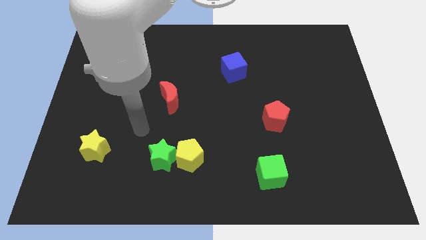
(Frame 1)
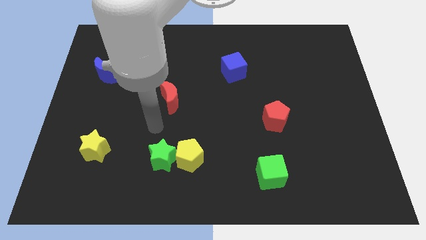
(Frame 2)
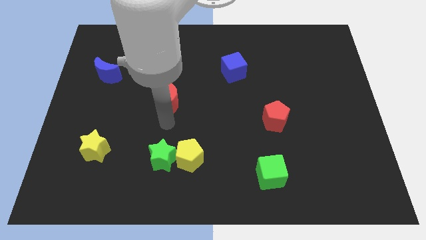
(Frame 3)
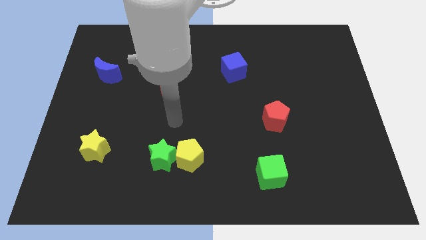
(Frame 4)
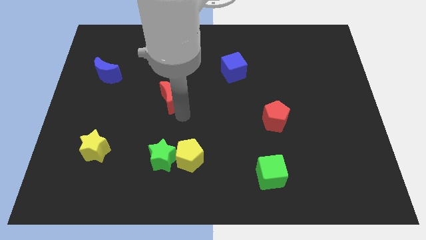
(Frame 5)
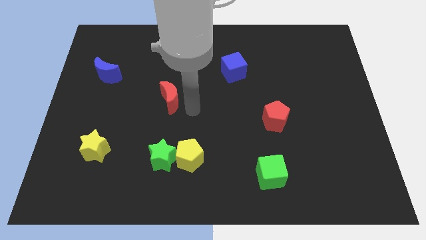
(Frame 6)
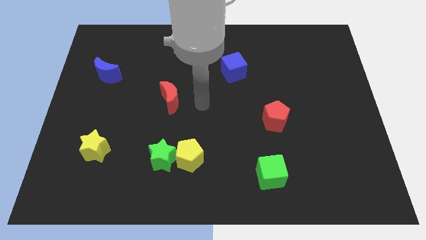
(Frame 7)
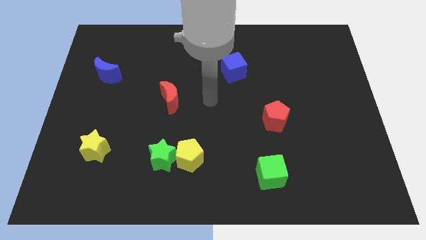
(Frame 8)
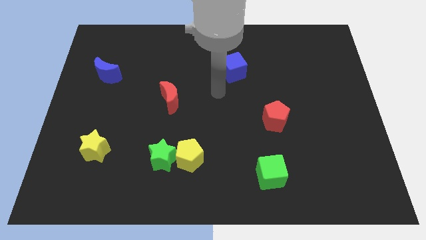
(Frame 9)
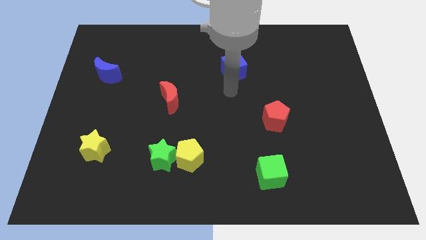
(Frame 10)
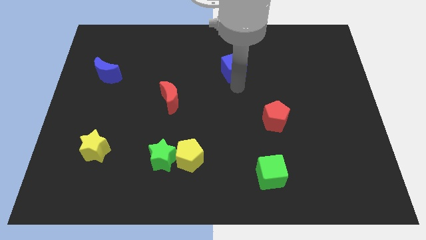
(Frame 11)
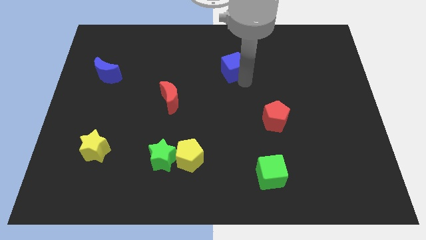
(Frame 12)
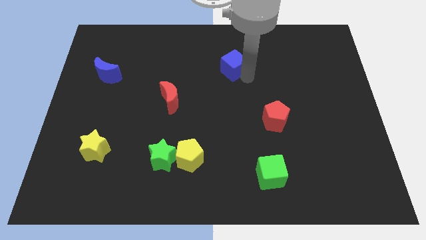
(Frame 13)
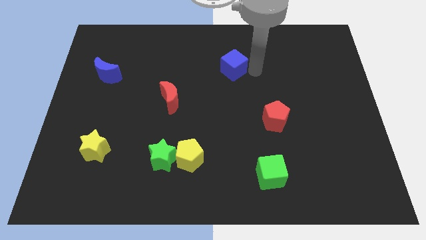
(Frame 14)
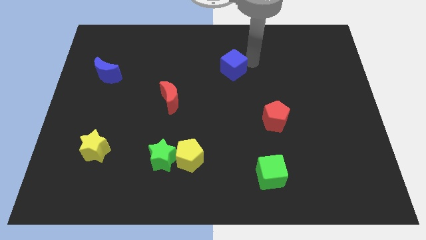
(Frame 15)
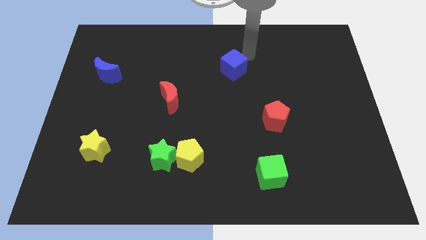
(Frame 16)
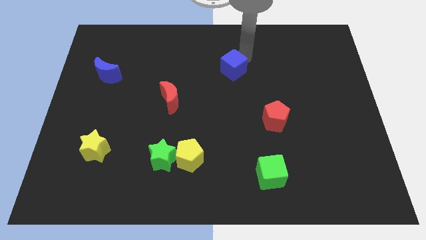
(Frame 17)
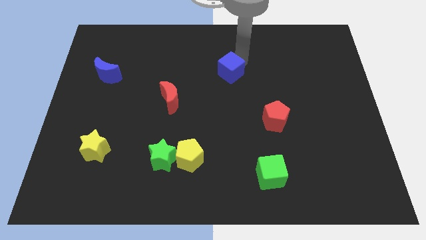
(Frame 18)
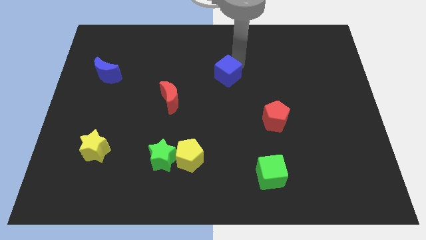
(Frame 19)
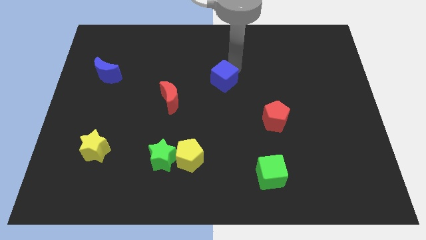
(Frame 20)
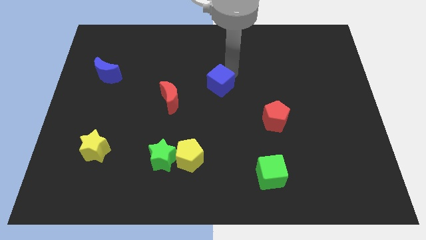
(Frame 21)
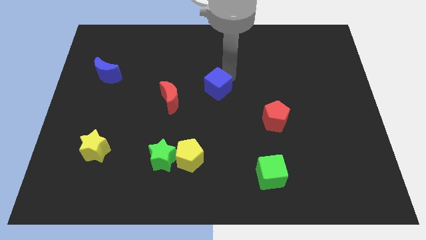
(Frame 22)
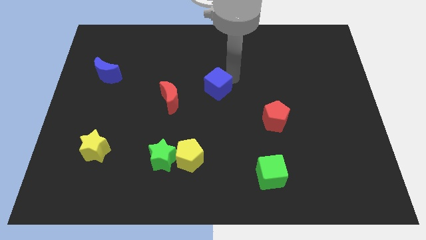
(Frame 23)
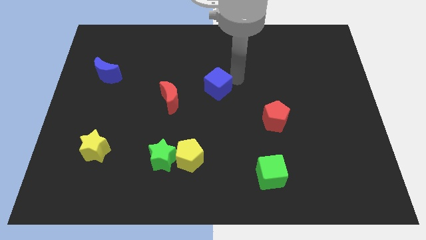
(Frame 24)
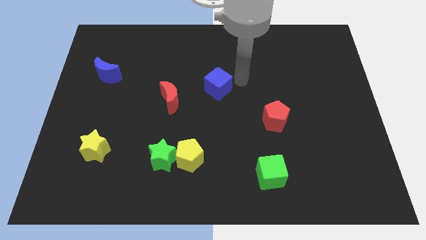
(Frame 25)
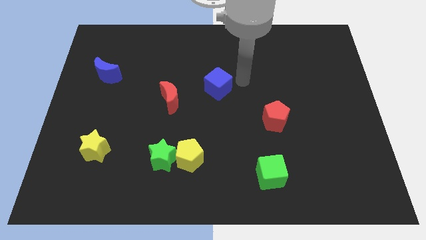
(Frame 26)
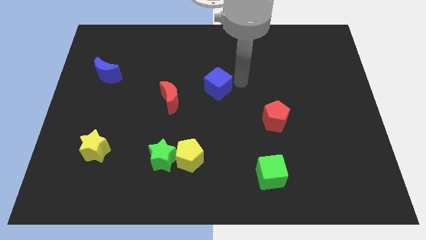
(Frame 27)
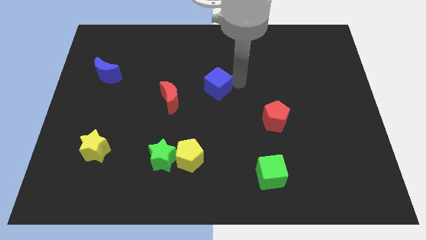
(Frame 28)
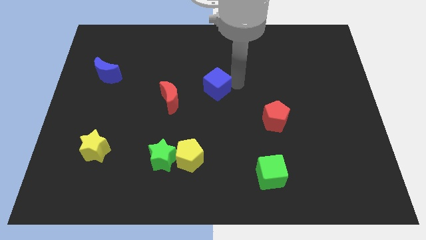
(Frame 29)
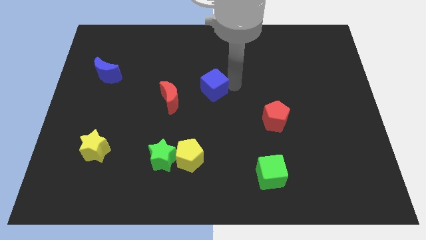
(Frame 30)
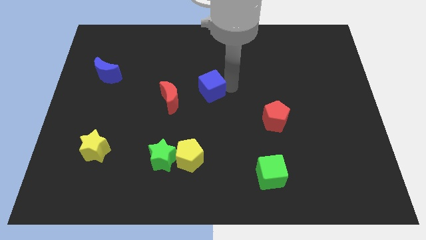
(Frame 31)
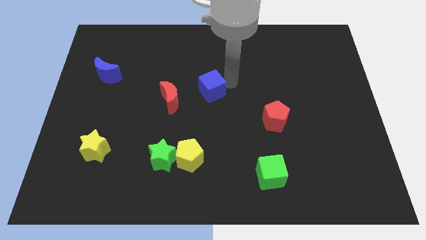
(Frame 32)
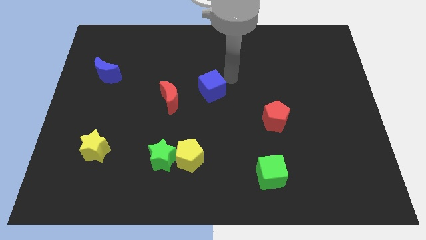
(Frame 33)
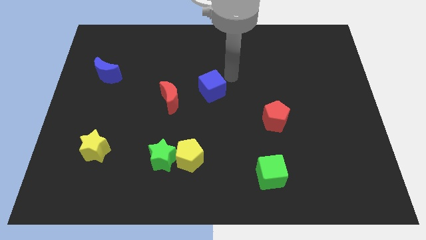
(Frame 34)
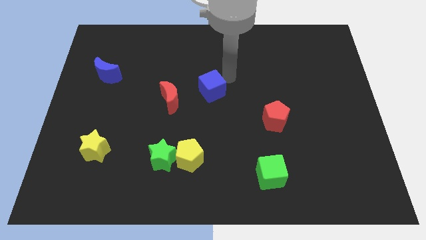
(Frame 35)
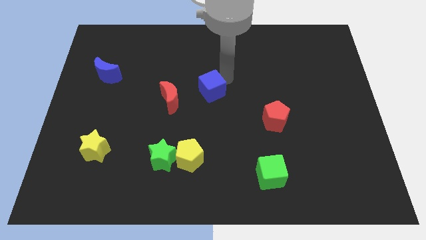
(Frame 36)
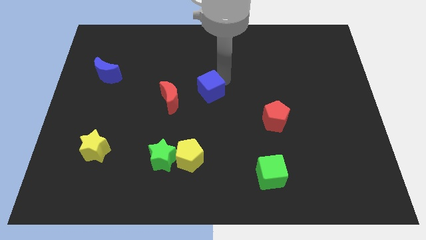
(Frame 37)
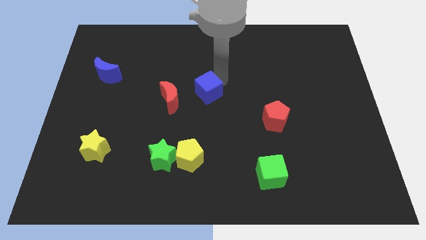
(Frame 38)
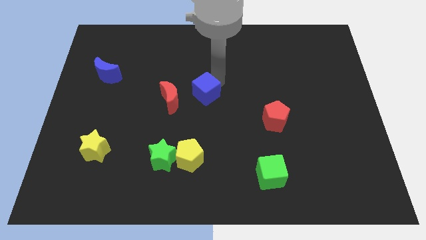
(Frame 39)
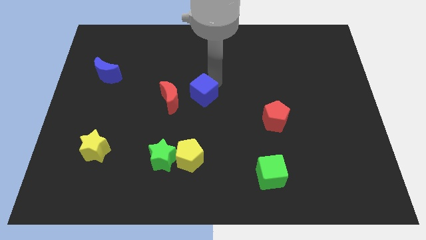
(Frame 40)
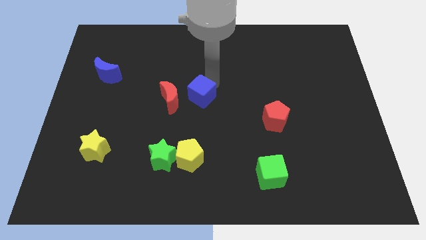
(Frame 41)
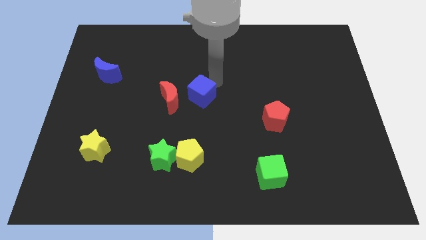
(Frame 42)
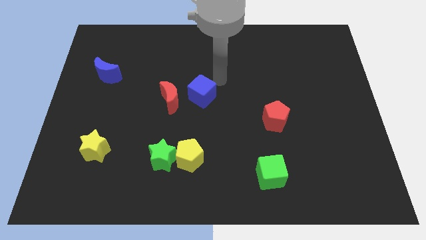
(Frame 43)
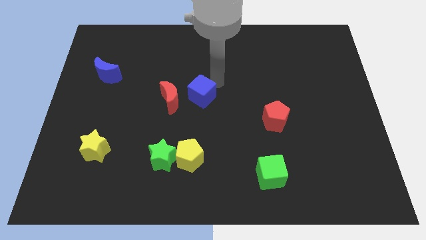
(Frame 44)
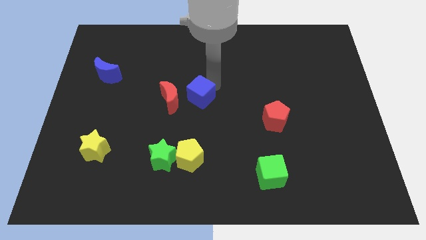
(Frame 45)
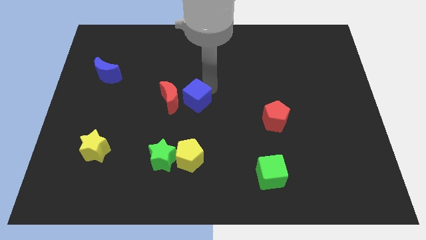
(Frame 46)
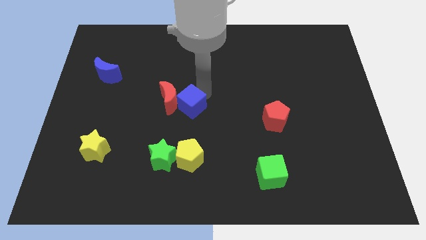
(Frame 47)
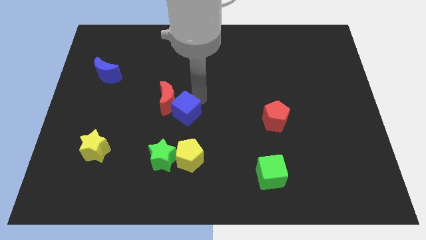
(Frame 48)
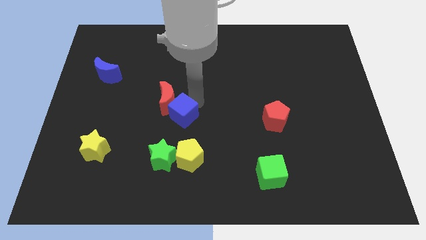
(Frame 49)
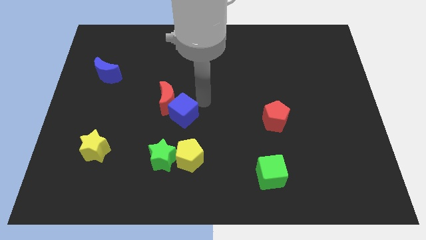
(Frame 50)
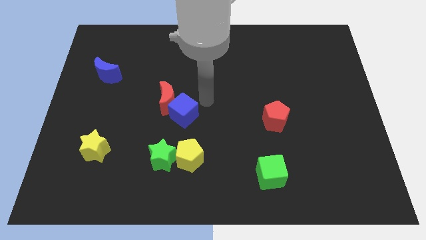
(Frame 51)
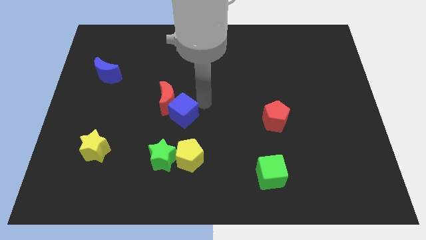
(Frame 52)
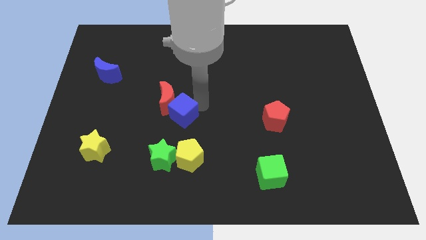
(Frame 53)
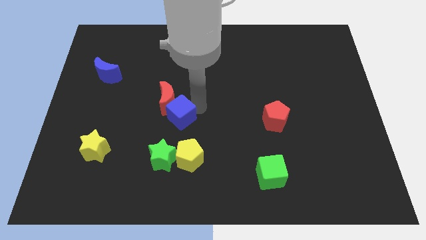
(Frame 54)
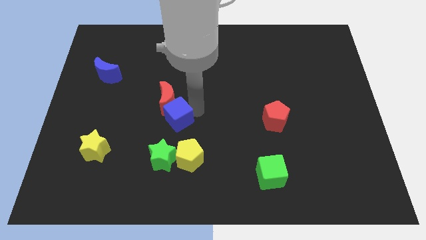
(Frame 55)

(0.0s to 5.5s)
push the blue cube down and then left

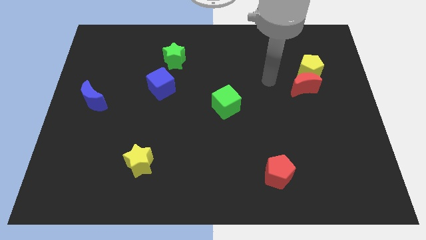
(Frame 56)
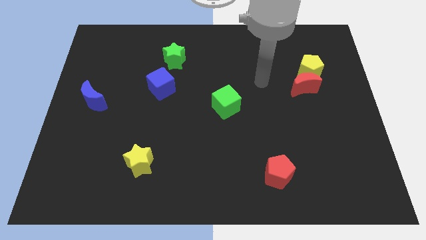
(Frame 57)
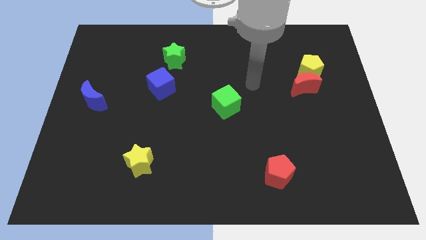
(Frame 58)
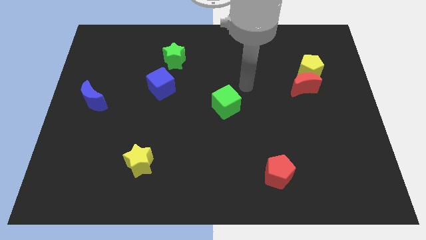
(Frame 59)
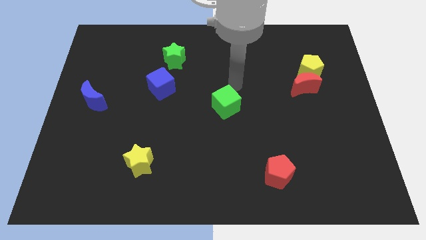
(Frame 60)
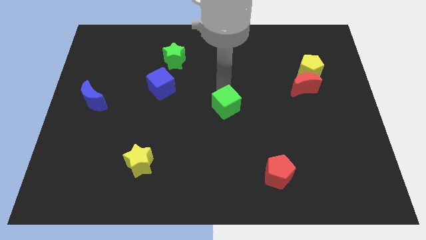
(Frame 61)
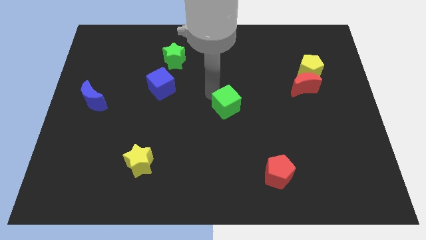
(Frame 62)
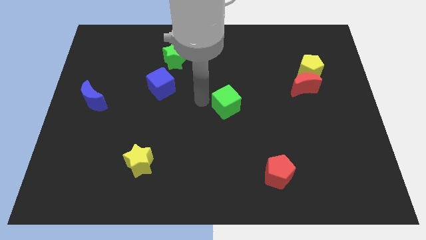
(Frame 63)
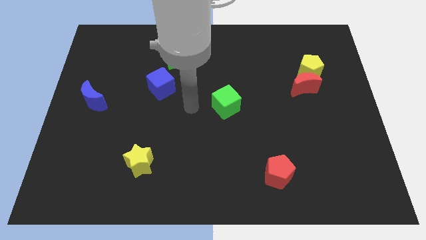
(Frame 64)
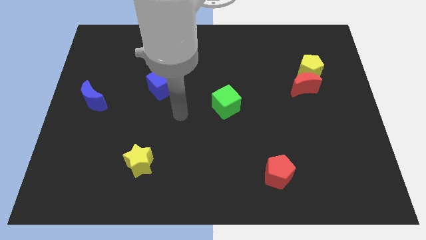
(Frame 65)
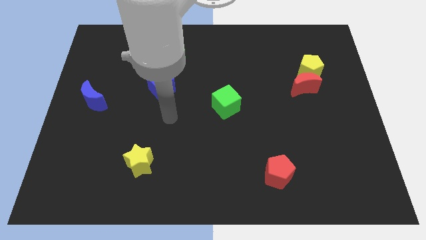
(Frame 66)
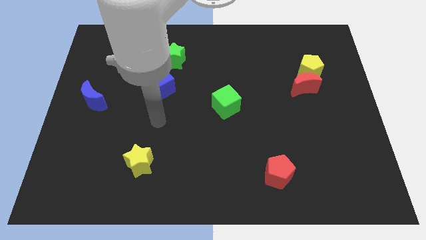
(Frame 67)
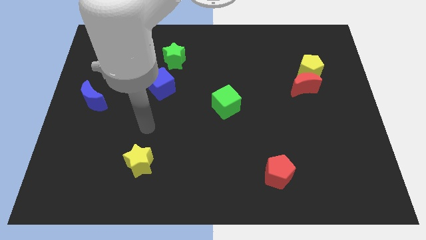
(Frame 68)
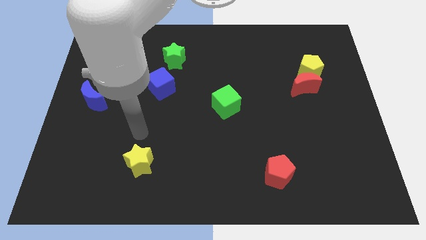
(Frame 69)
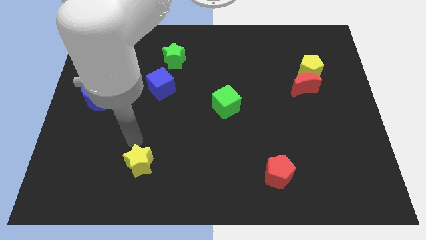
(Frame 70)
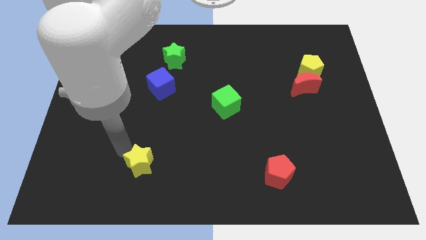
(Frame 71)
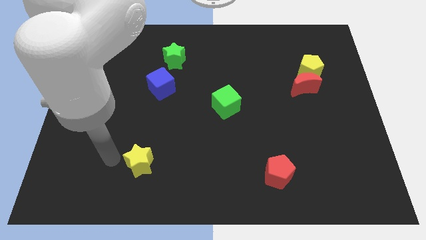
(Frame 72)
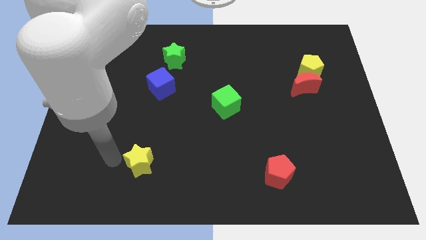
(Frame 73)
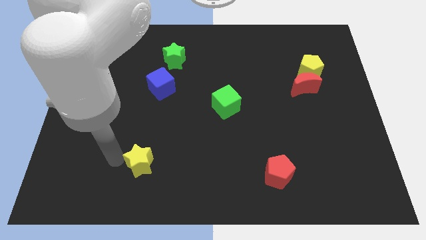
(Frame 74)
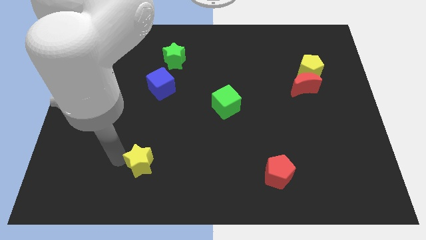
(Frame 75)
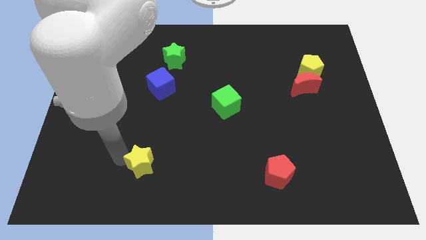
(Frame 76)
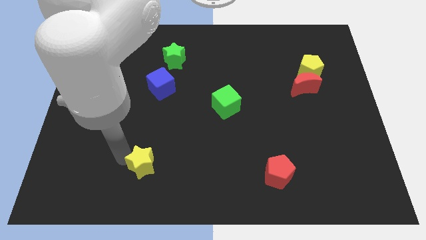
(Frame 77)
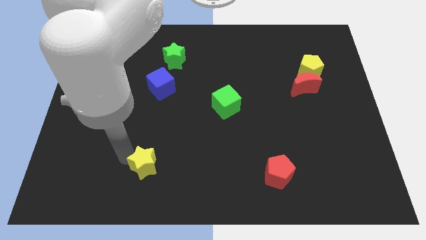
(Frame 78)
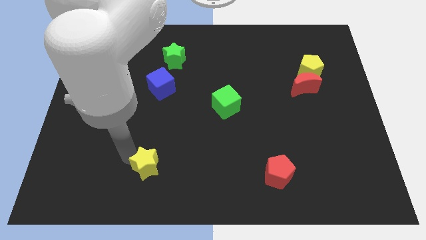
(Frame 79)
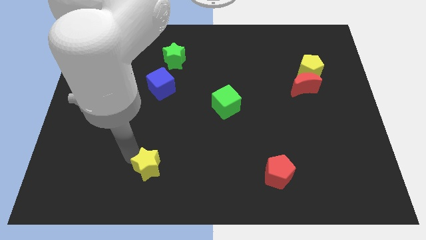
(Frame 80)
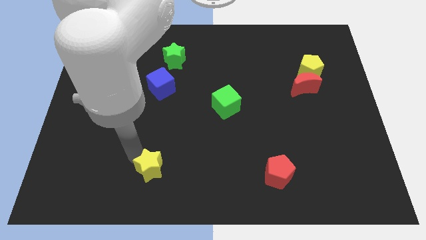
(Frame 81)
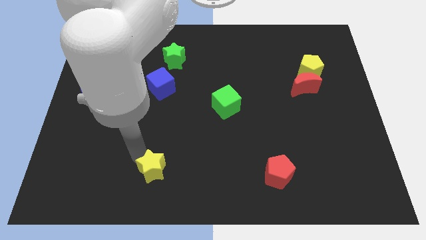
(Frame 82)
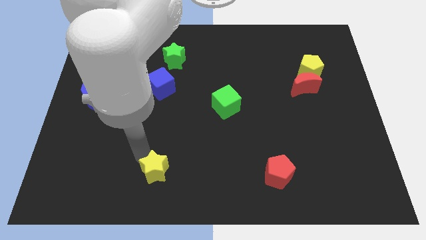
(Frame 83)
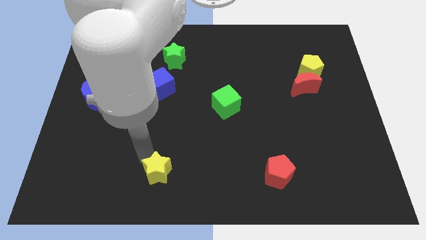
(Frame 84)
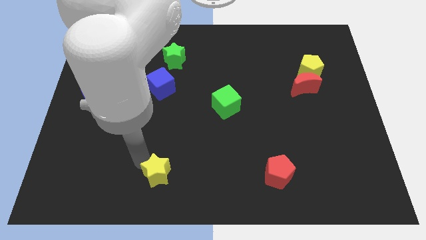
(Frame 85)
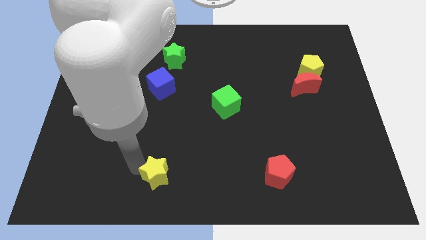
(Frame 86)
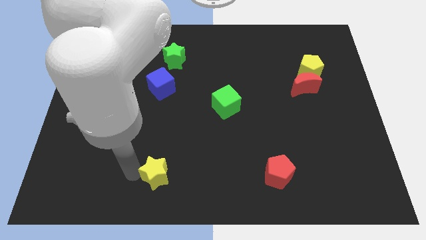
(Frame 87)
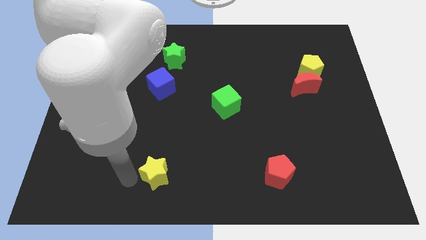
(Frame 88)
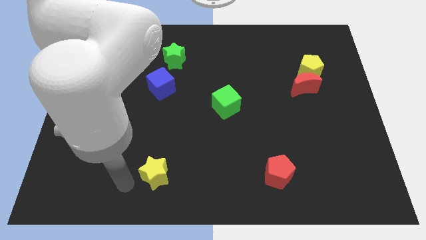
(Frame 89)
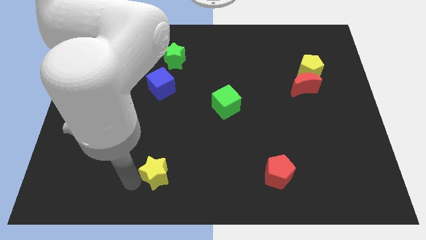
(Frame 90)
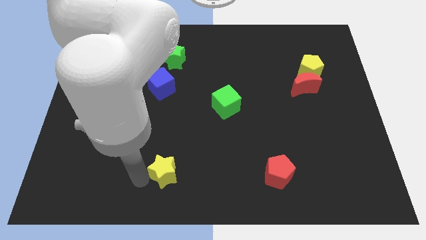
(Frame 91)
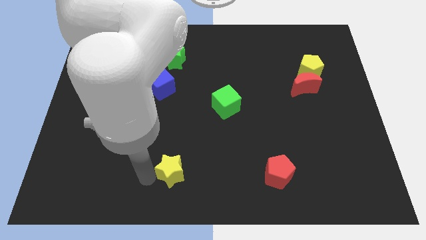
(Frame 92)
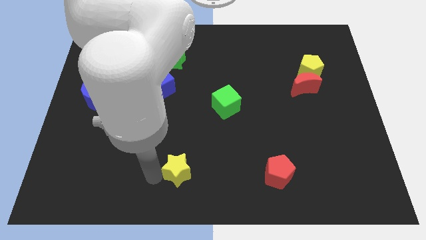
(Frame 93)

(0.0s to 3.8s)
slide the yellow star to the right slightly
